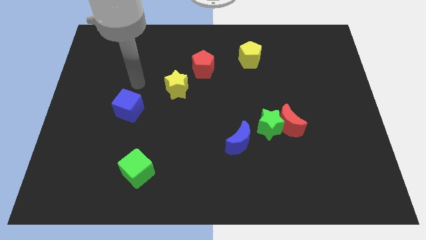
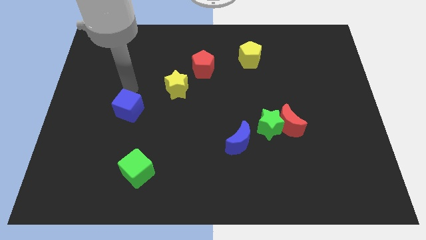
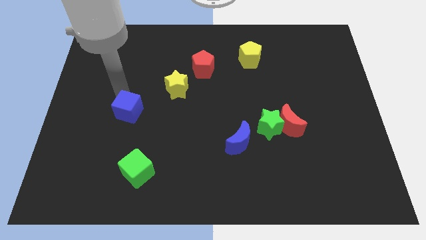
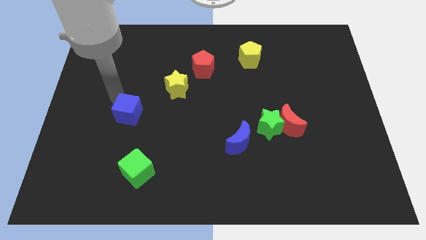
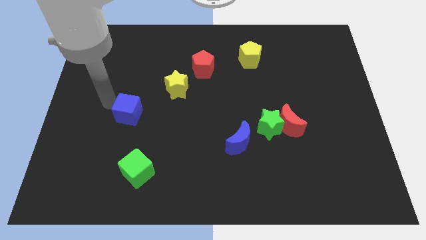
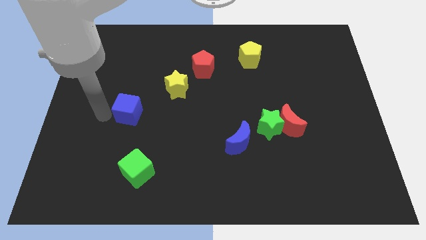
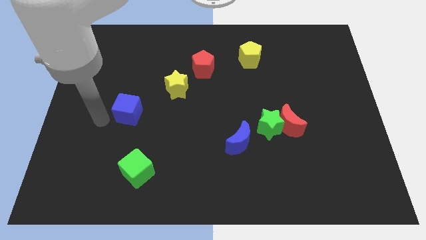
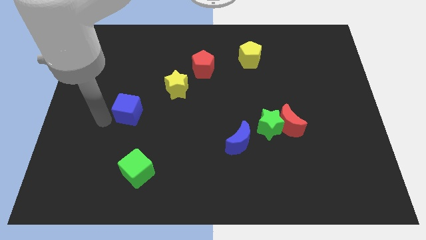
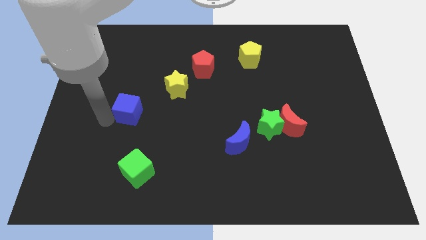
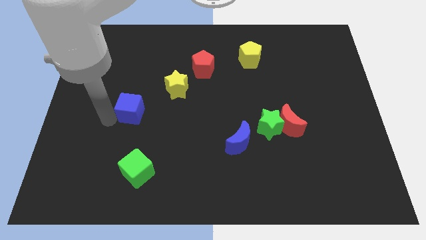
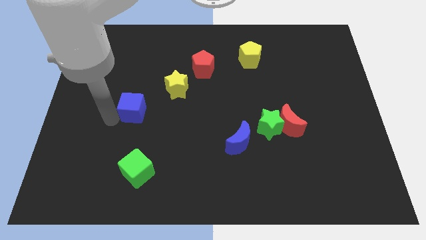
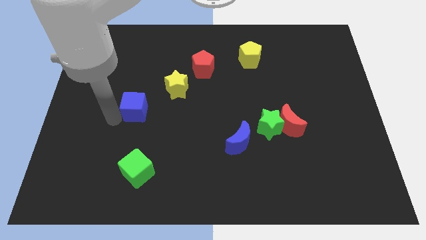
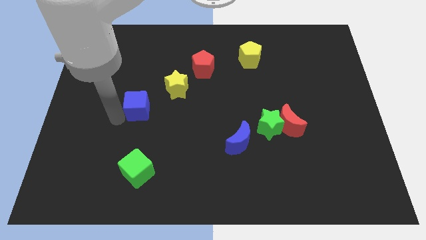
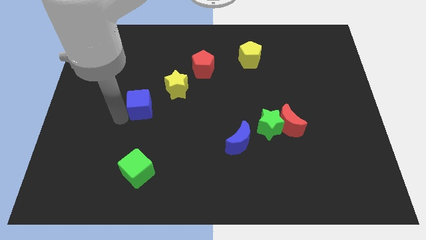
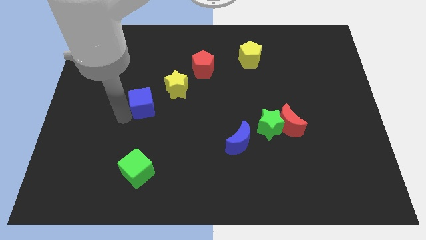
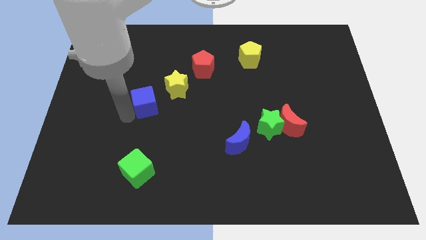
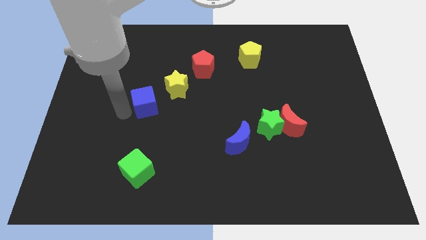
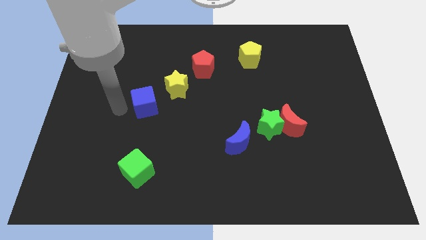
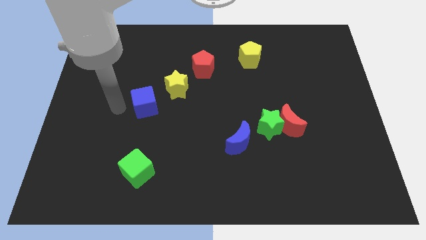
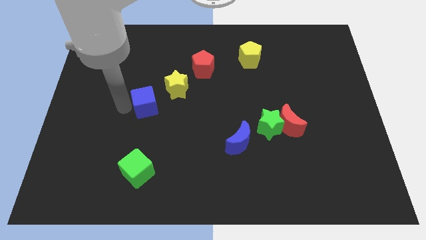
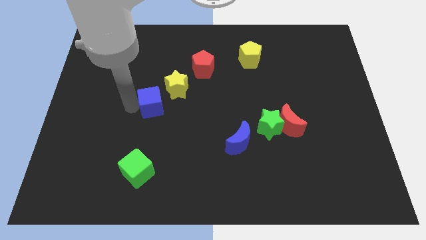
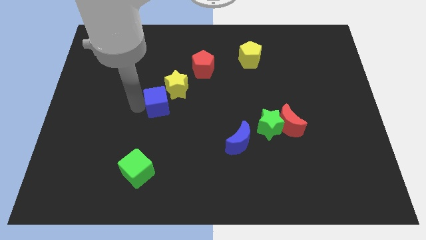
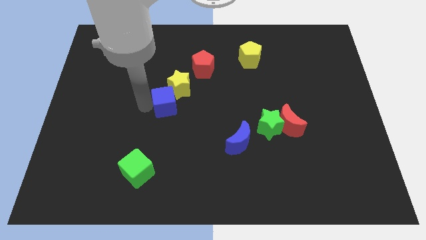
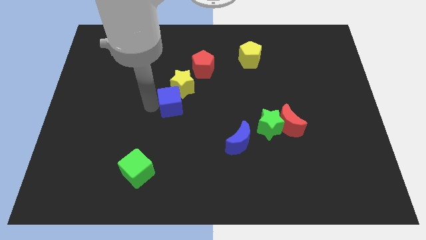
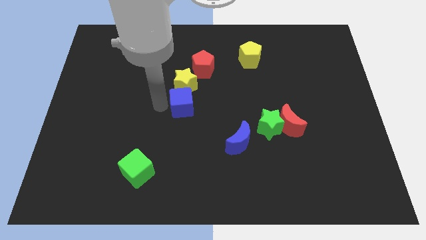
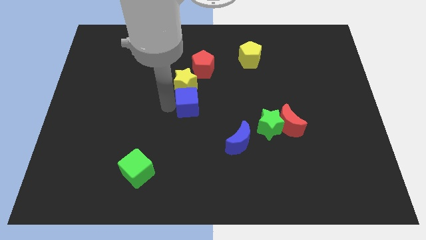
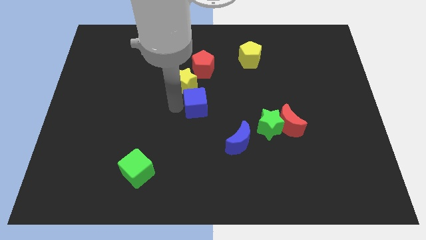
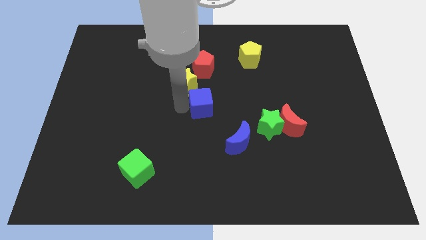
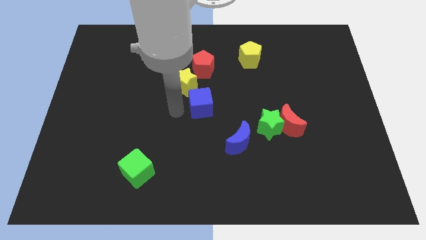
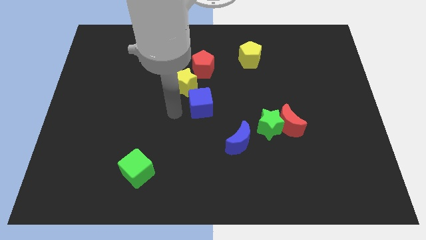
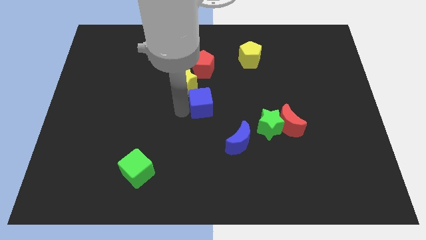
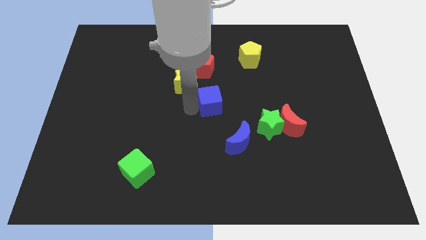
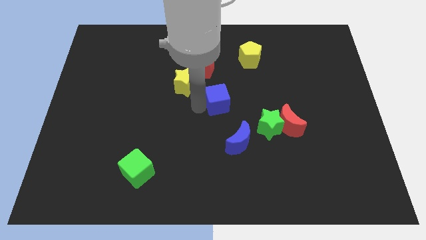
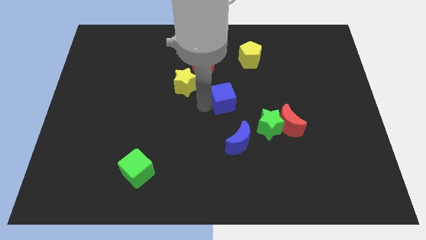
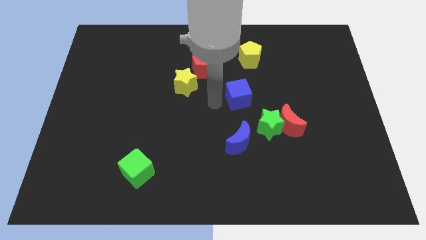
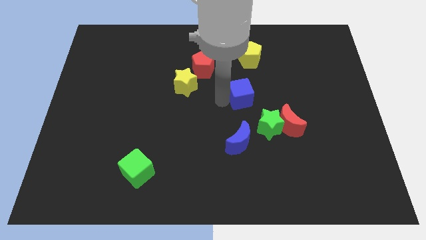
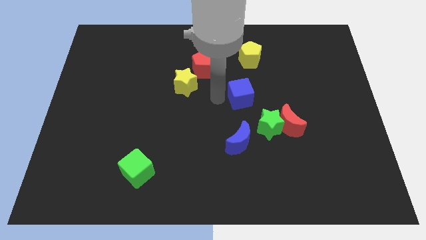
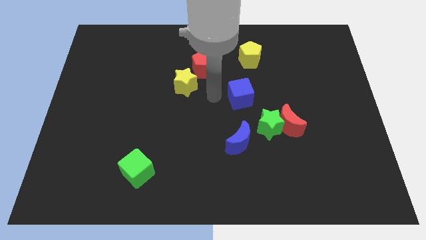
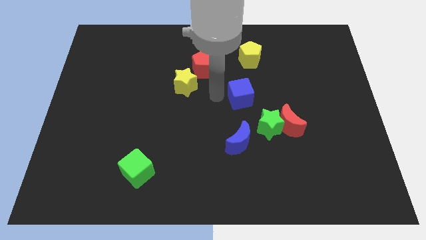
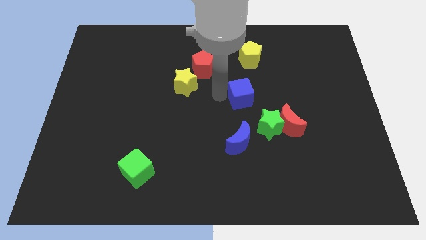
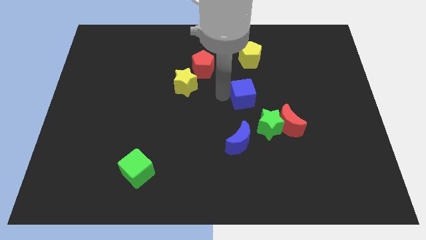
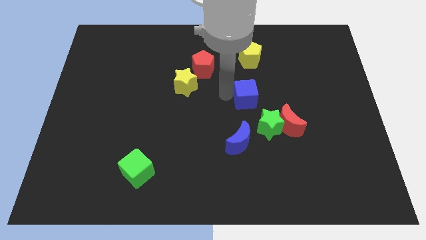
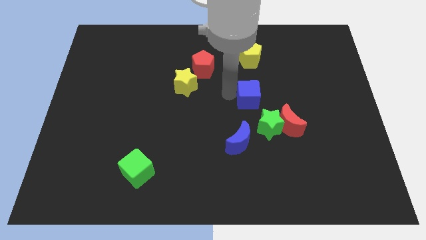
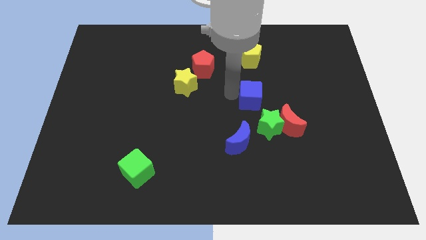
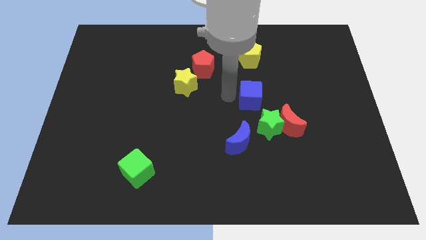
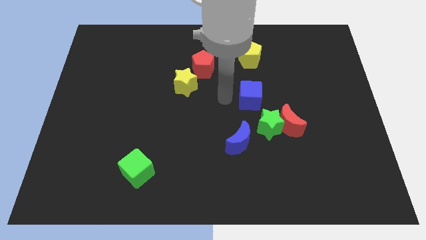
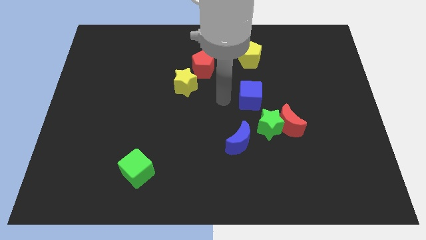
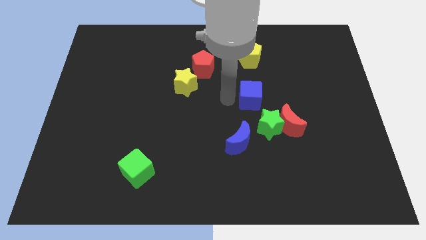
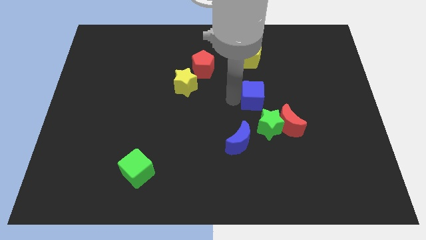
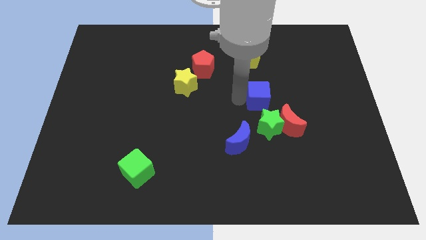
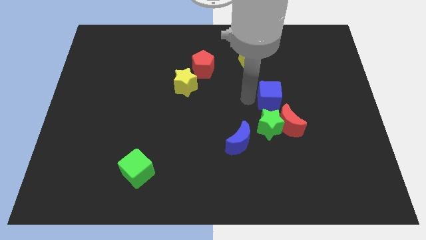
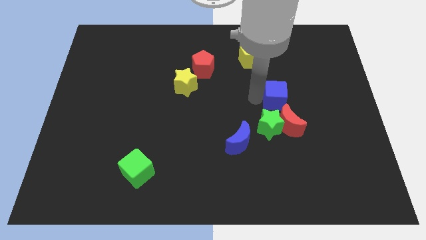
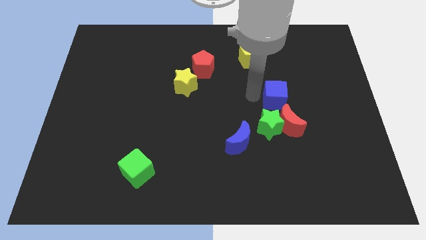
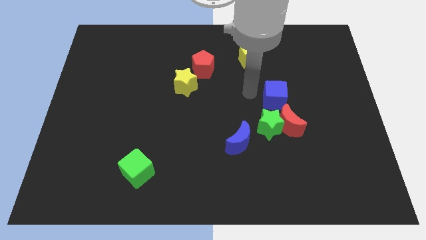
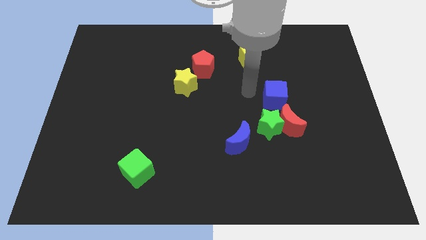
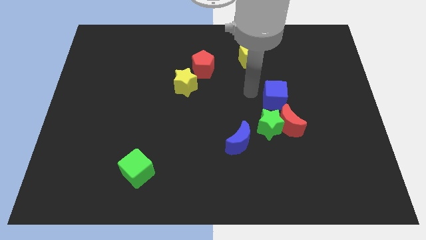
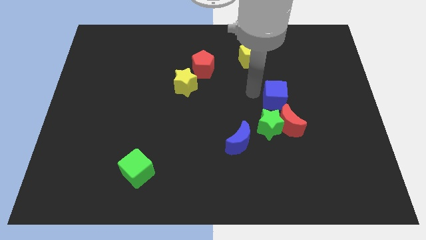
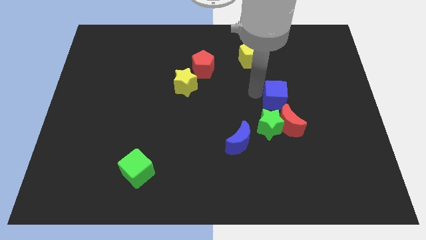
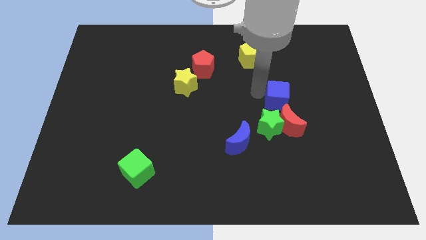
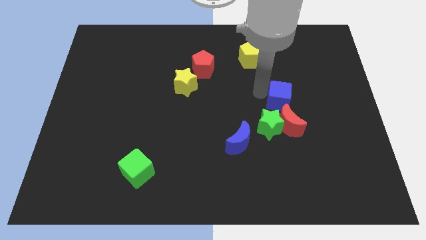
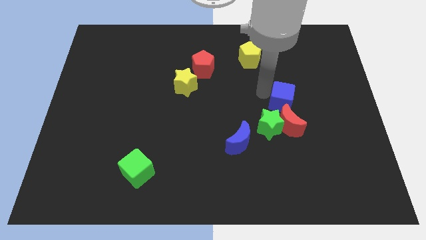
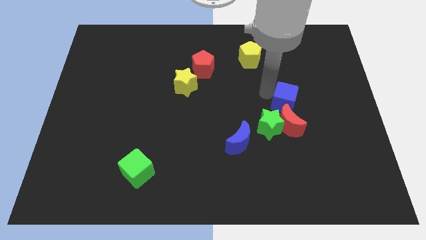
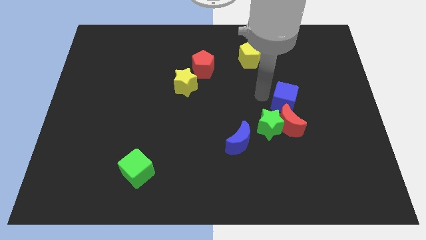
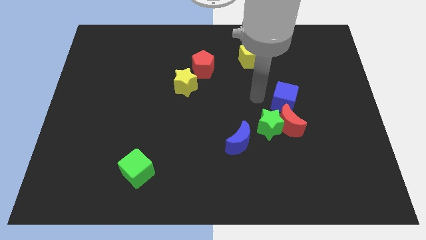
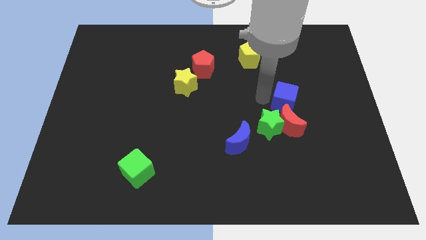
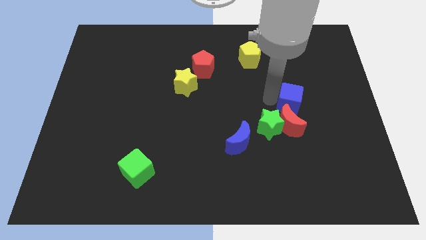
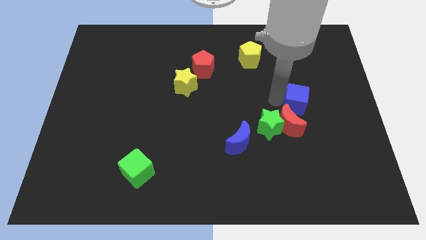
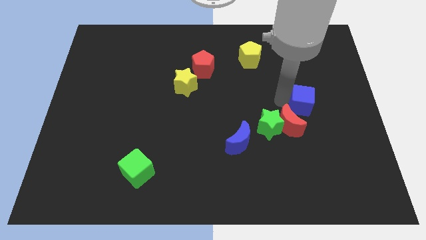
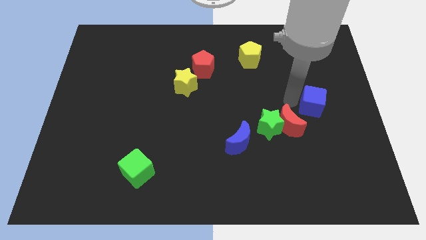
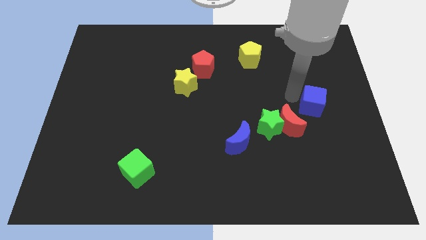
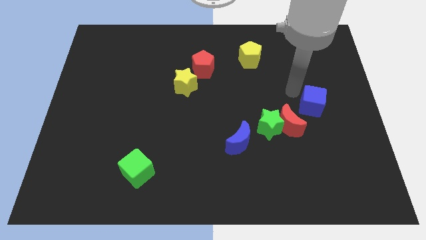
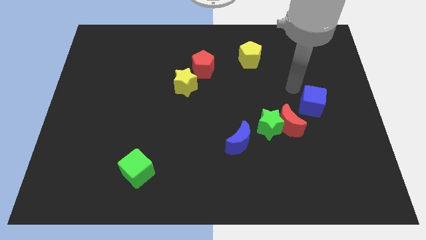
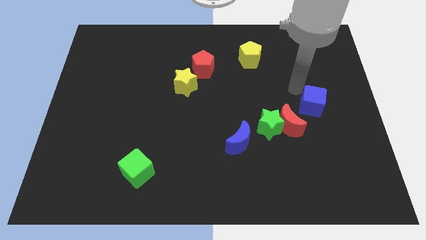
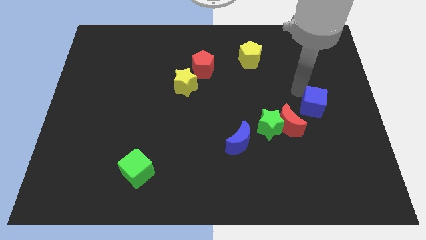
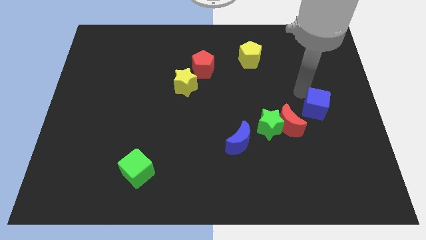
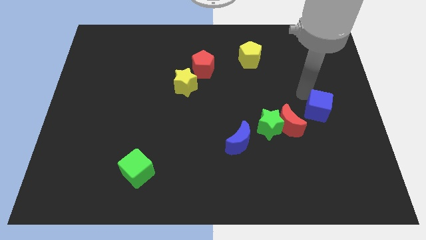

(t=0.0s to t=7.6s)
slide the blue cube right of the red moon
